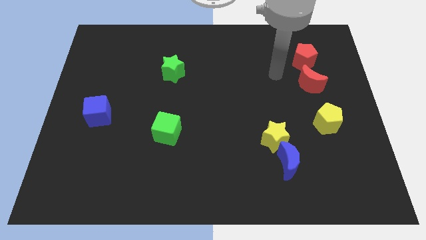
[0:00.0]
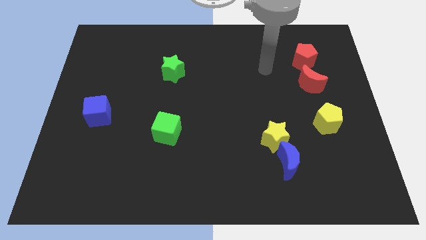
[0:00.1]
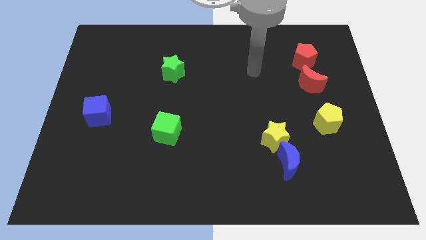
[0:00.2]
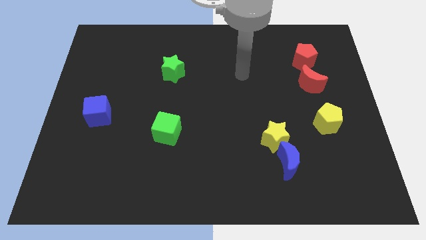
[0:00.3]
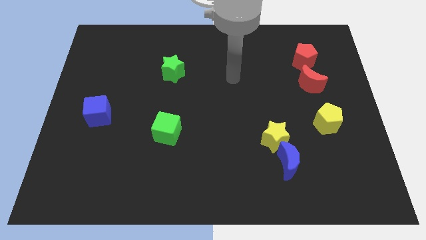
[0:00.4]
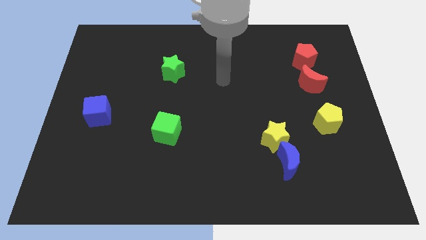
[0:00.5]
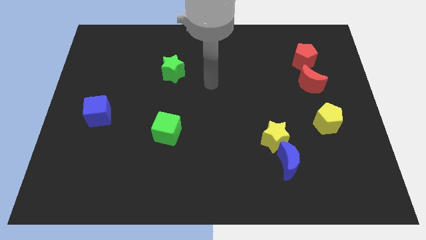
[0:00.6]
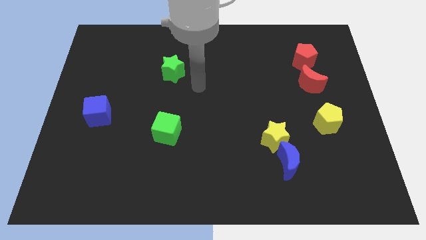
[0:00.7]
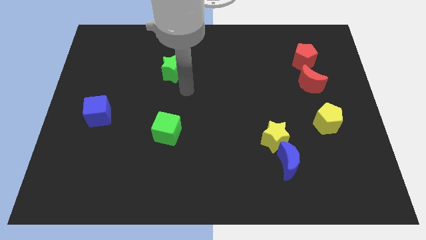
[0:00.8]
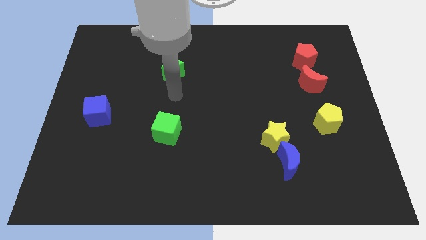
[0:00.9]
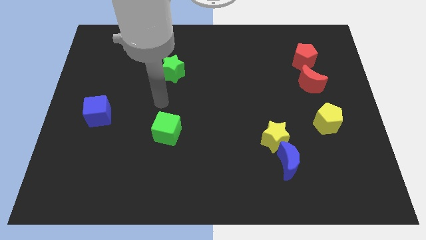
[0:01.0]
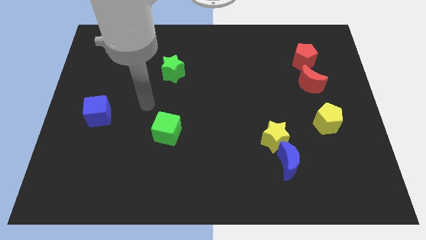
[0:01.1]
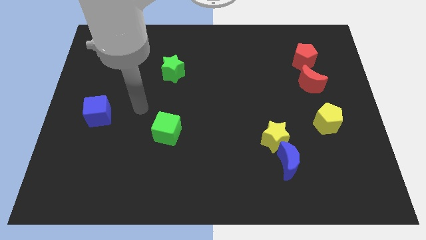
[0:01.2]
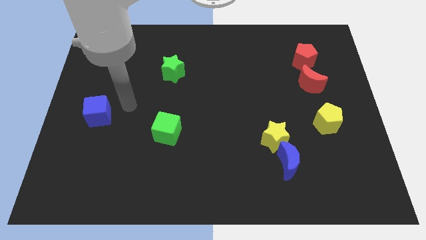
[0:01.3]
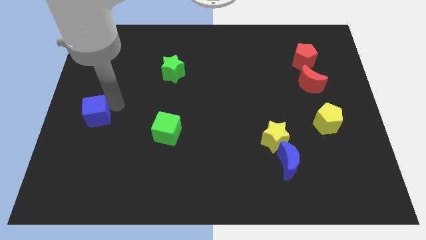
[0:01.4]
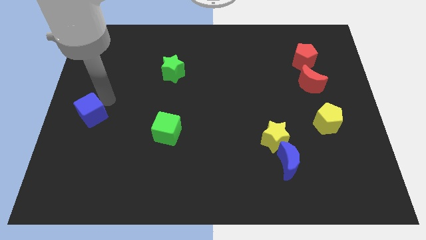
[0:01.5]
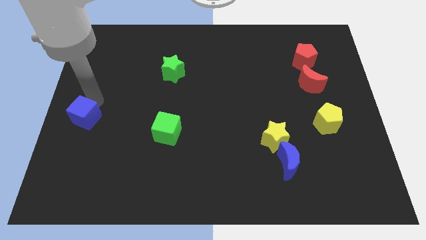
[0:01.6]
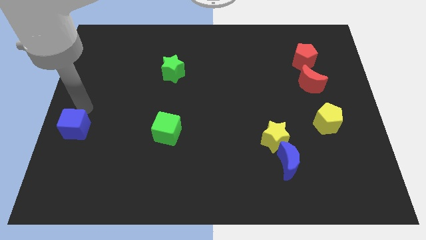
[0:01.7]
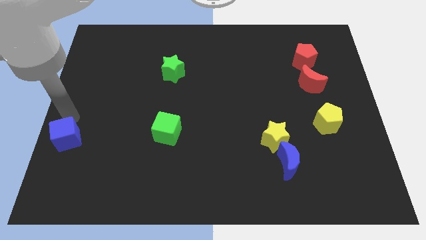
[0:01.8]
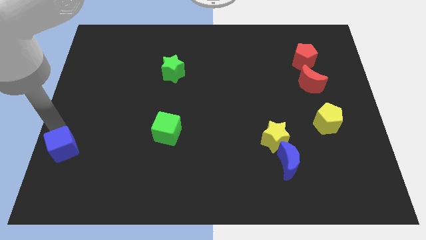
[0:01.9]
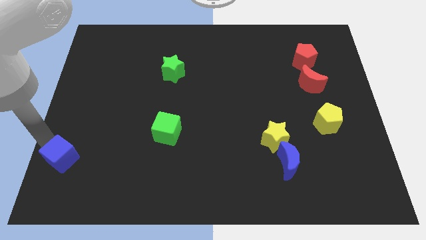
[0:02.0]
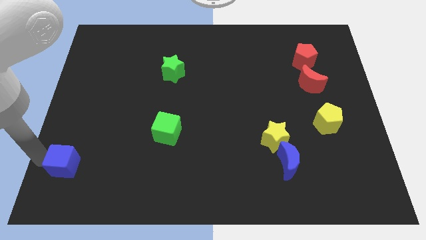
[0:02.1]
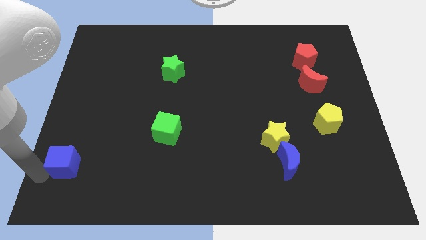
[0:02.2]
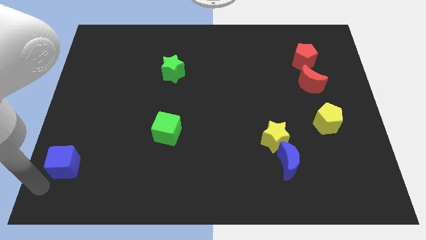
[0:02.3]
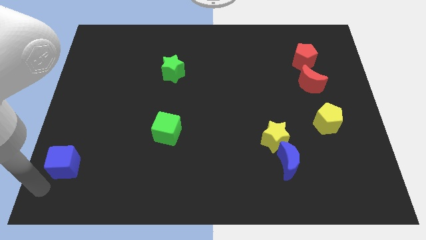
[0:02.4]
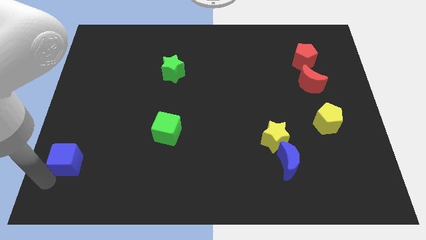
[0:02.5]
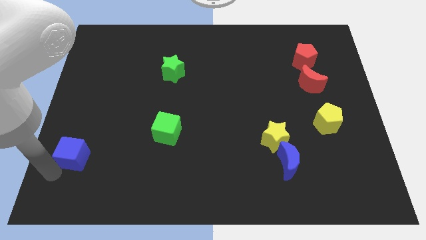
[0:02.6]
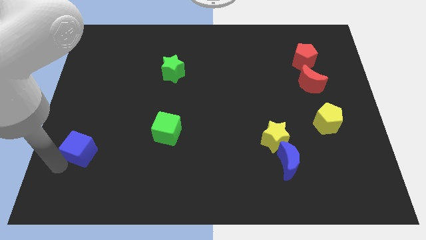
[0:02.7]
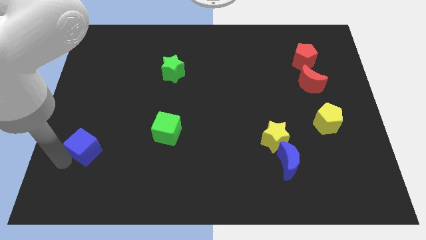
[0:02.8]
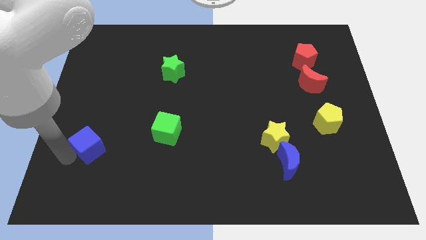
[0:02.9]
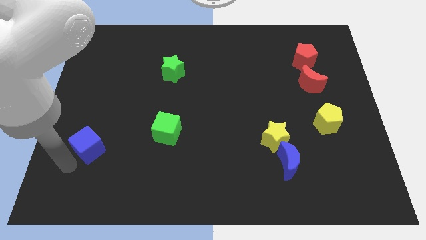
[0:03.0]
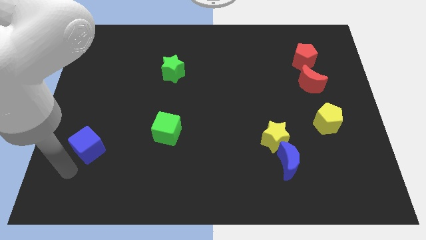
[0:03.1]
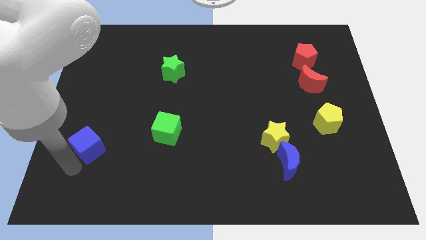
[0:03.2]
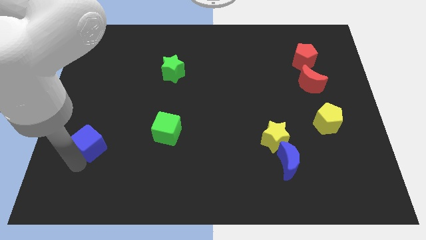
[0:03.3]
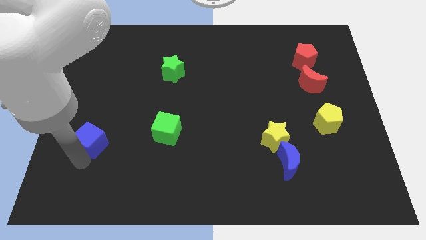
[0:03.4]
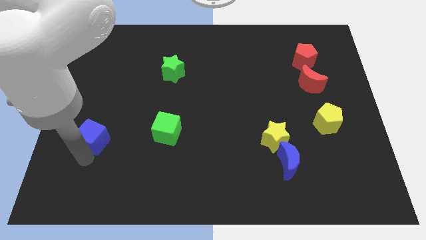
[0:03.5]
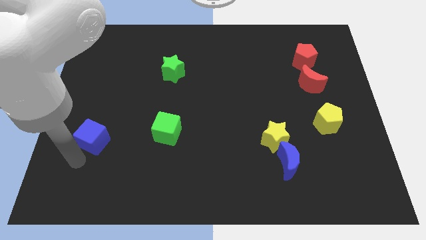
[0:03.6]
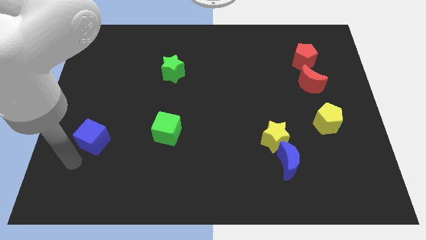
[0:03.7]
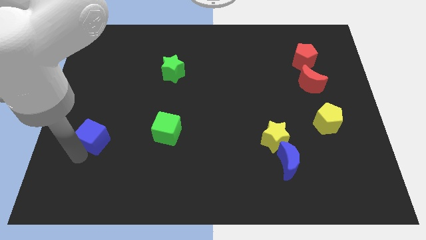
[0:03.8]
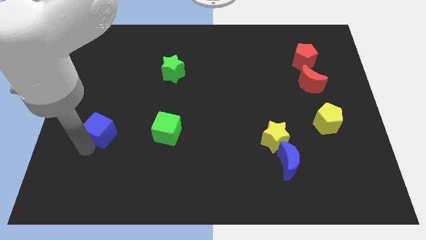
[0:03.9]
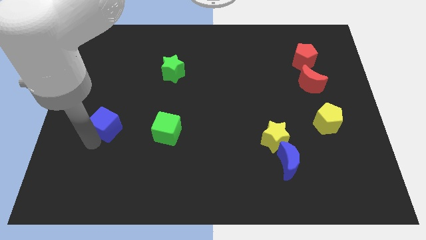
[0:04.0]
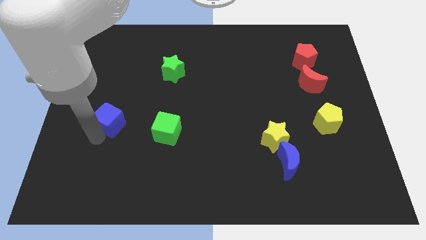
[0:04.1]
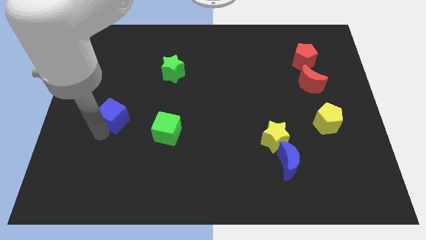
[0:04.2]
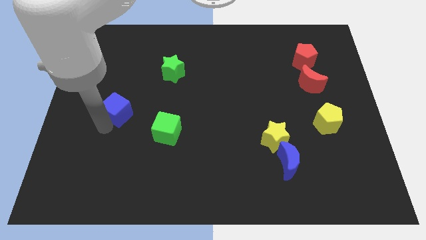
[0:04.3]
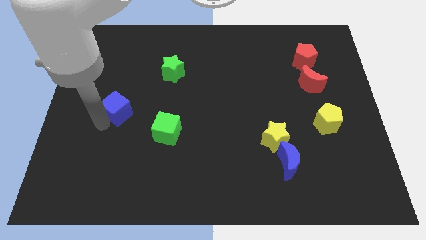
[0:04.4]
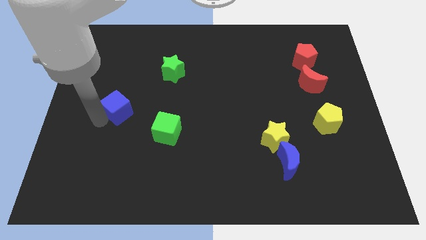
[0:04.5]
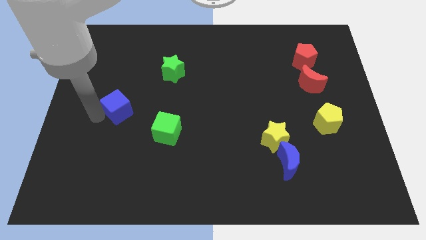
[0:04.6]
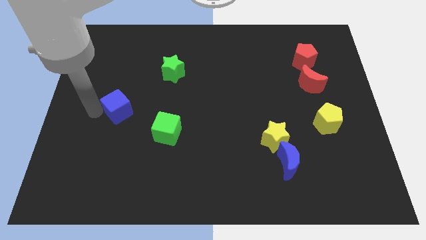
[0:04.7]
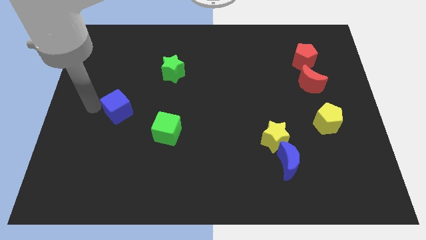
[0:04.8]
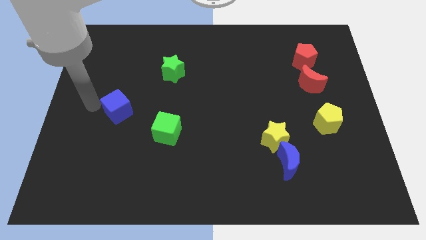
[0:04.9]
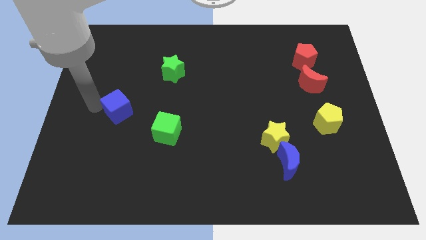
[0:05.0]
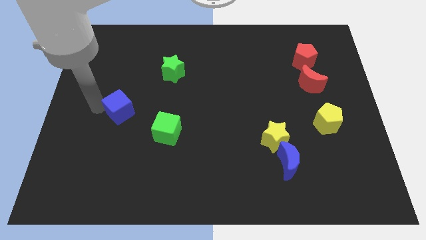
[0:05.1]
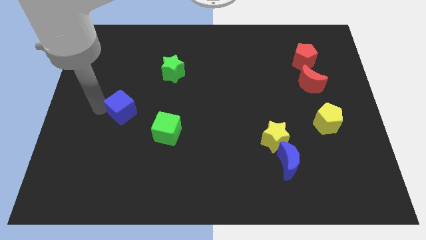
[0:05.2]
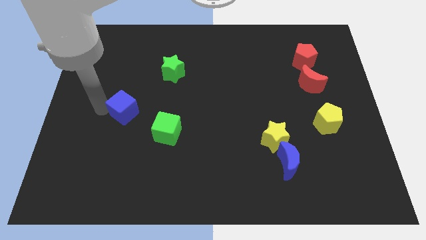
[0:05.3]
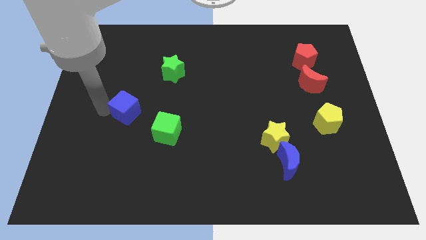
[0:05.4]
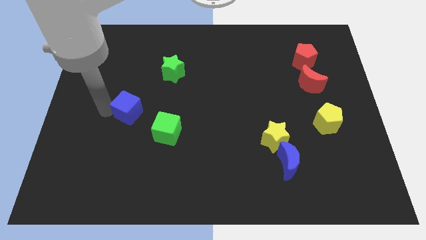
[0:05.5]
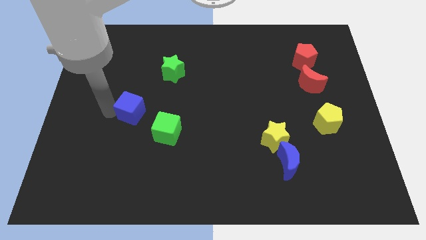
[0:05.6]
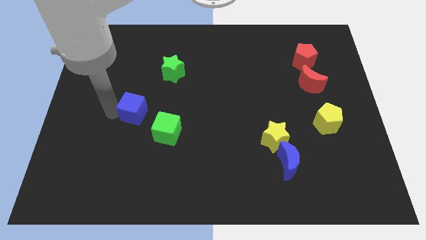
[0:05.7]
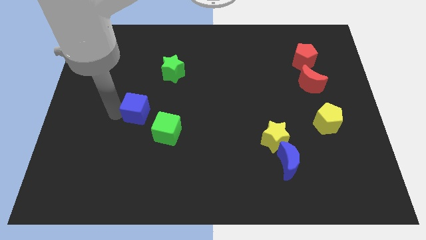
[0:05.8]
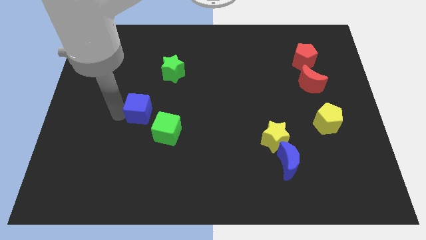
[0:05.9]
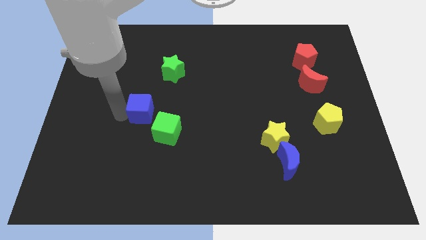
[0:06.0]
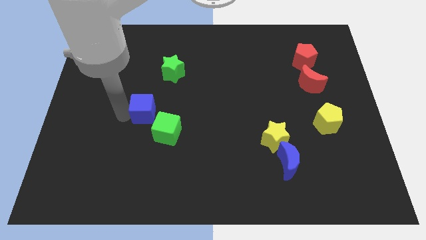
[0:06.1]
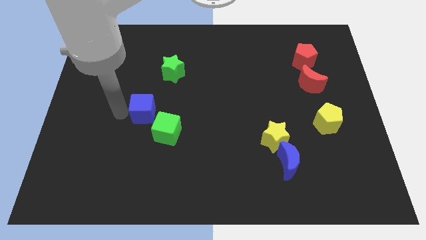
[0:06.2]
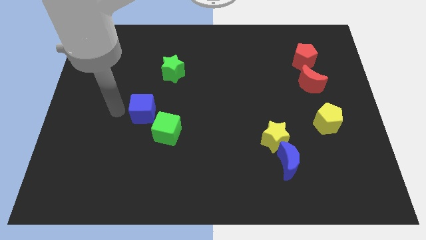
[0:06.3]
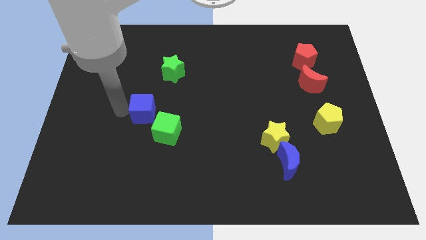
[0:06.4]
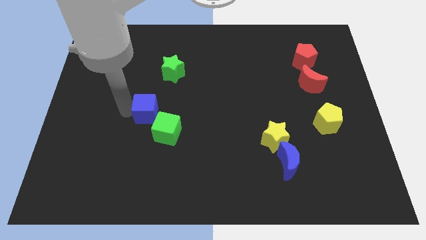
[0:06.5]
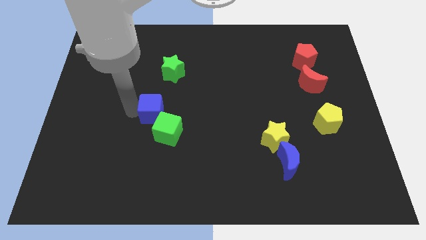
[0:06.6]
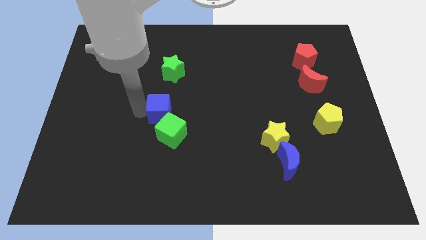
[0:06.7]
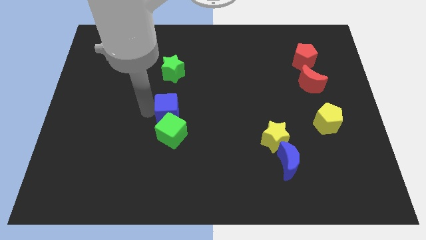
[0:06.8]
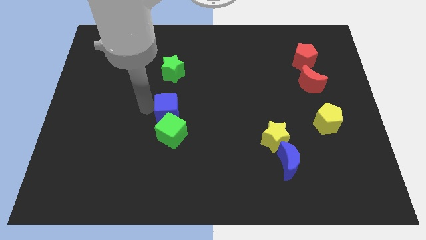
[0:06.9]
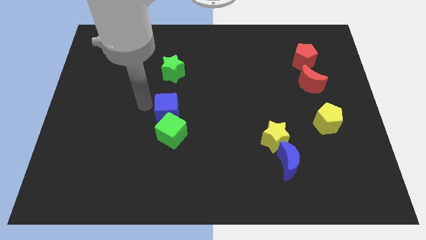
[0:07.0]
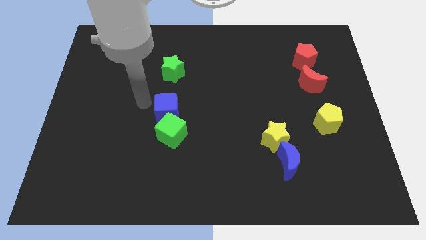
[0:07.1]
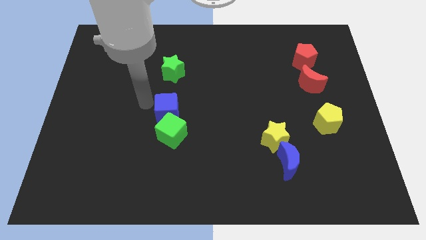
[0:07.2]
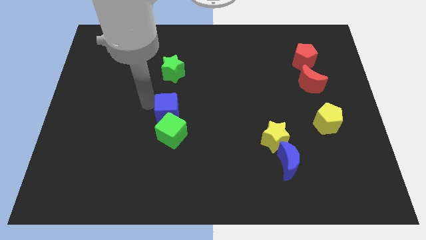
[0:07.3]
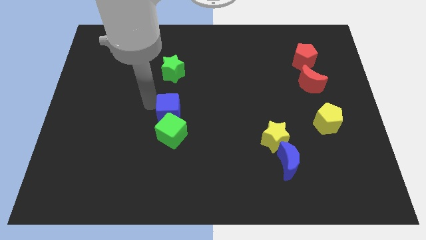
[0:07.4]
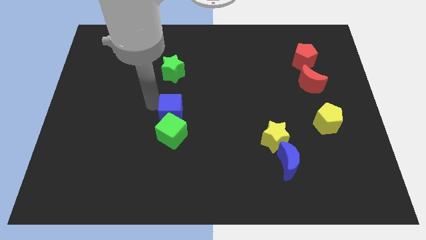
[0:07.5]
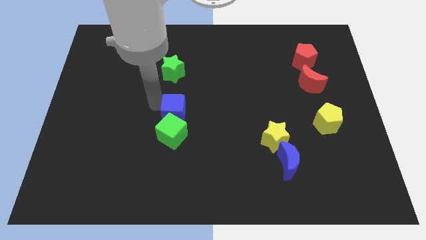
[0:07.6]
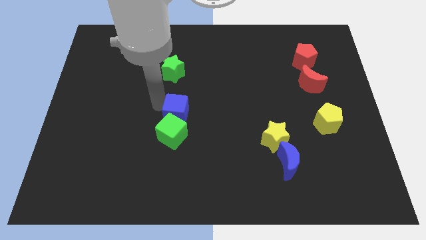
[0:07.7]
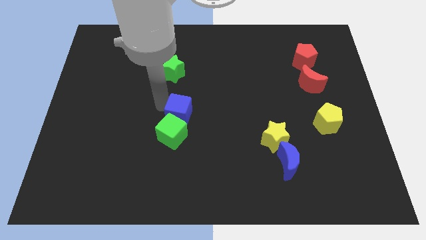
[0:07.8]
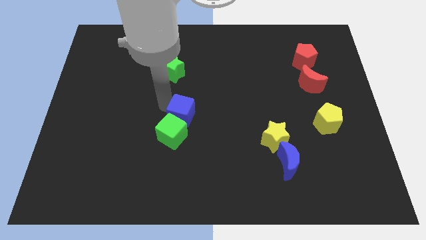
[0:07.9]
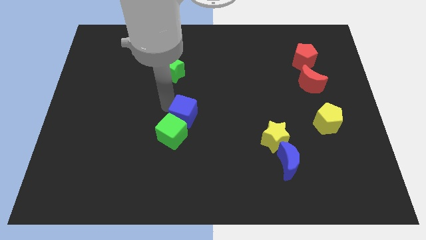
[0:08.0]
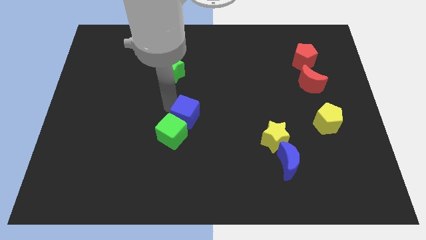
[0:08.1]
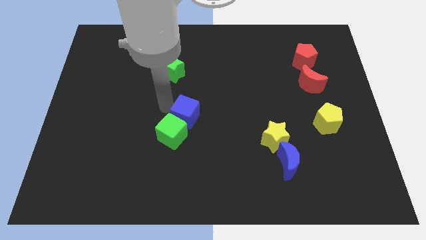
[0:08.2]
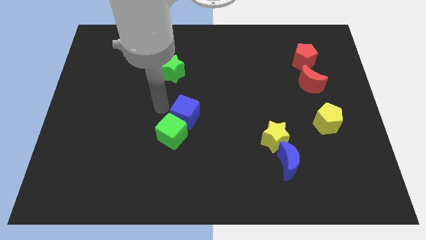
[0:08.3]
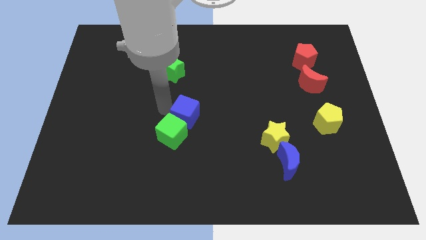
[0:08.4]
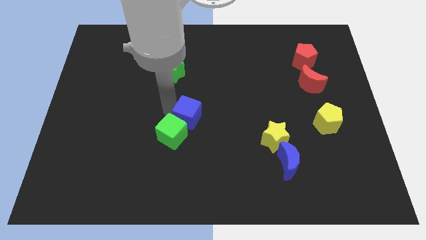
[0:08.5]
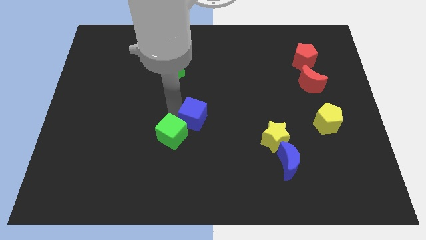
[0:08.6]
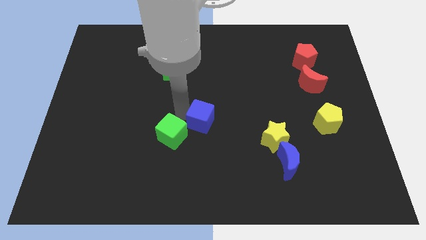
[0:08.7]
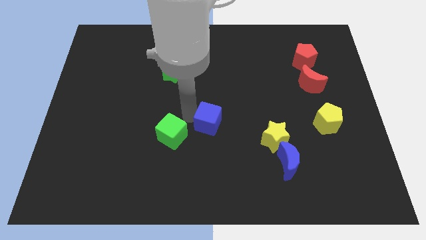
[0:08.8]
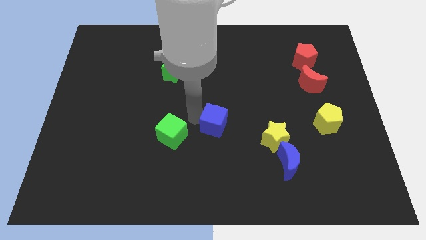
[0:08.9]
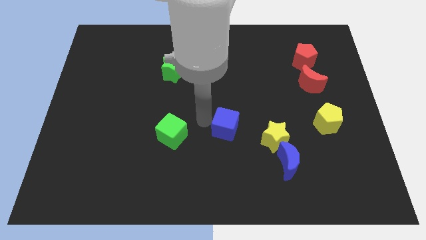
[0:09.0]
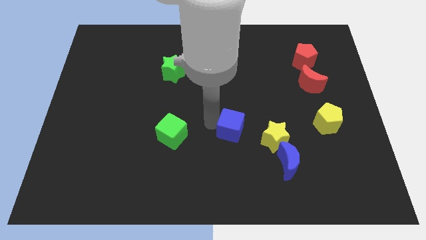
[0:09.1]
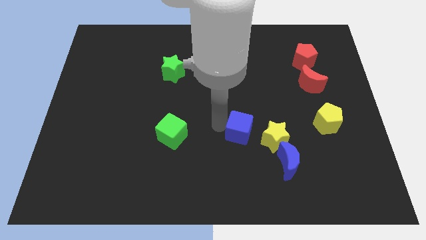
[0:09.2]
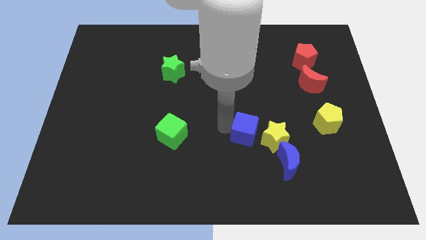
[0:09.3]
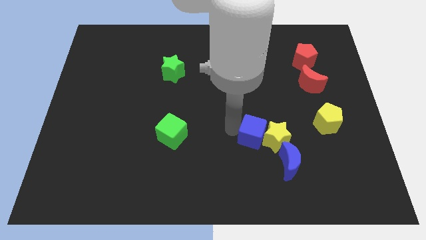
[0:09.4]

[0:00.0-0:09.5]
put the blue cube close to the yellow star
